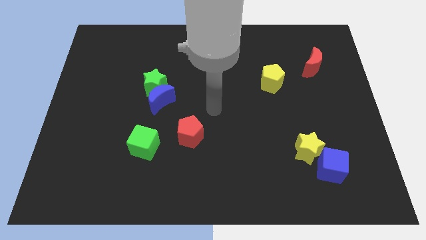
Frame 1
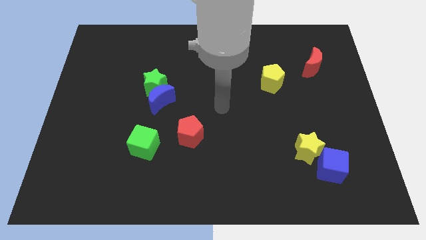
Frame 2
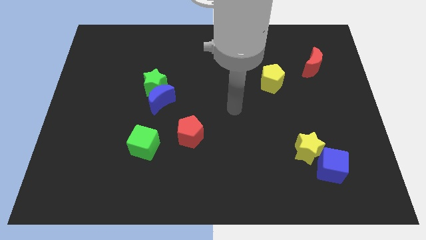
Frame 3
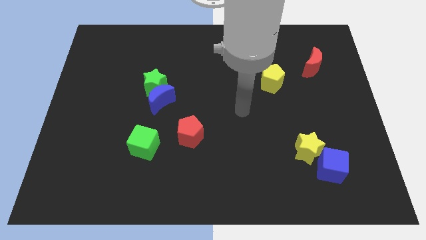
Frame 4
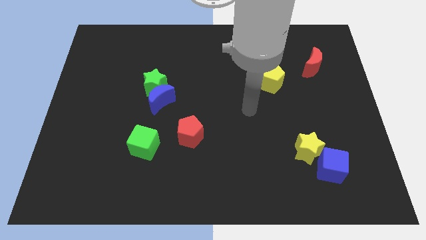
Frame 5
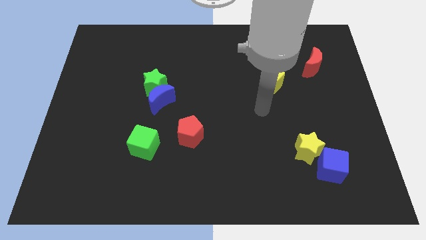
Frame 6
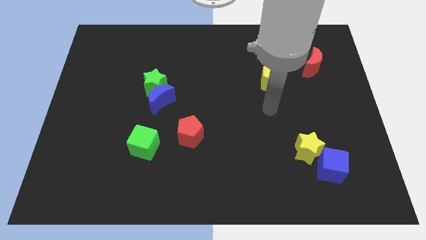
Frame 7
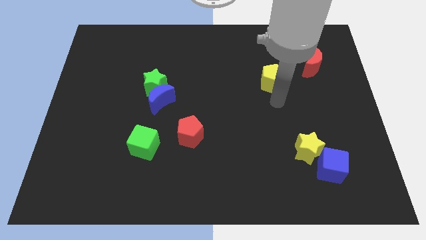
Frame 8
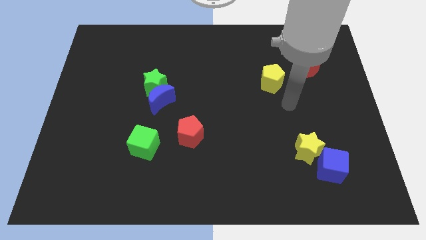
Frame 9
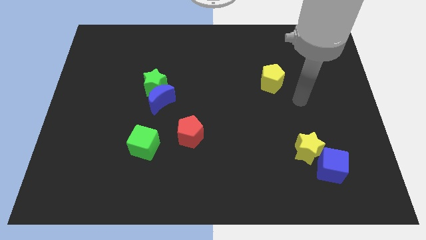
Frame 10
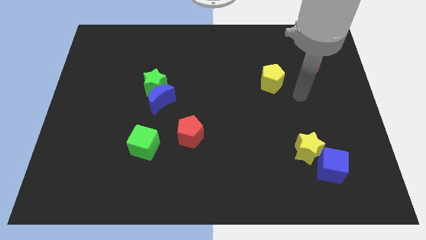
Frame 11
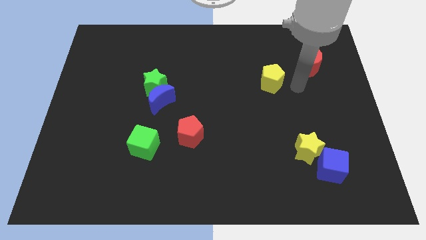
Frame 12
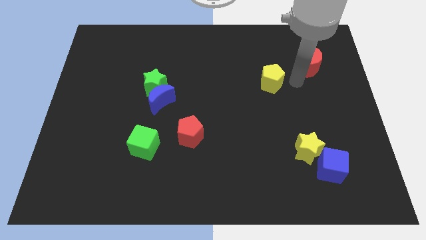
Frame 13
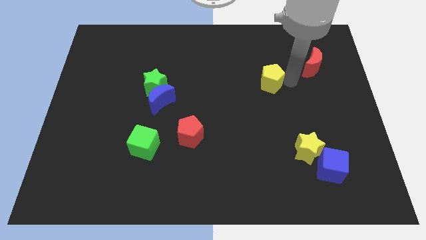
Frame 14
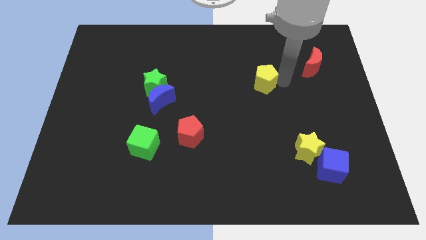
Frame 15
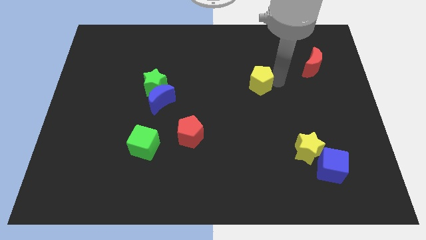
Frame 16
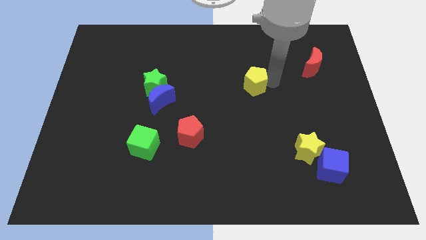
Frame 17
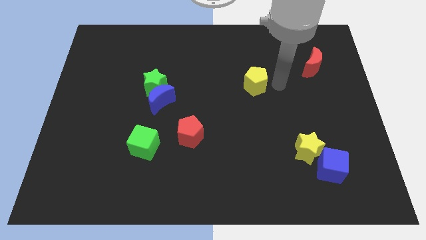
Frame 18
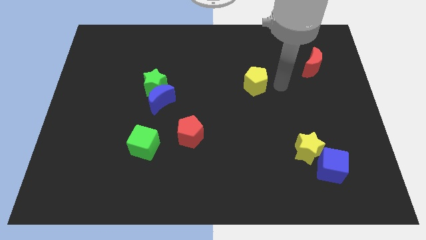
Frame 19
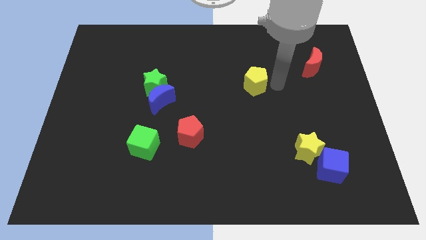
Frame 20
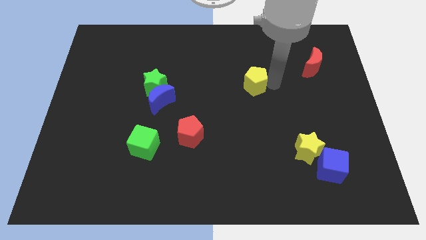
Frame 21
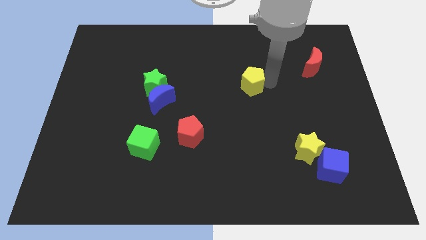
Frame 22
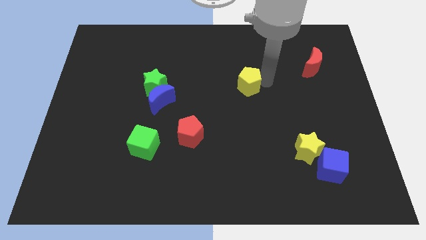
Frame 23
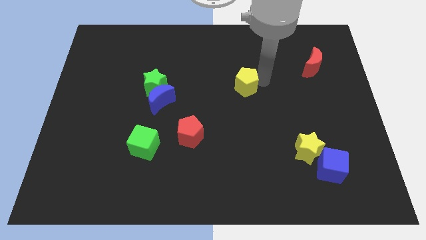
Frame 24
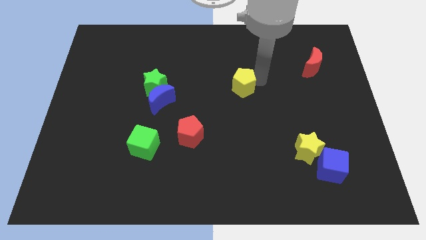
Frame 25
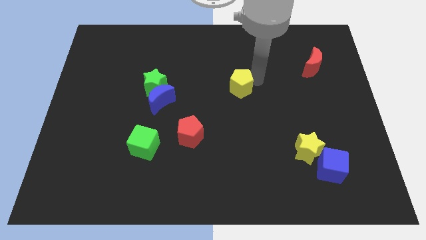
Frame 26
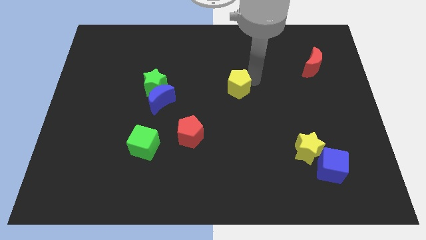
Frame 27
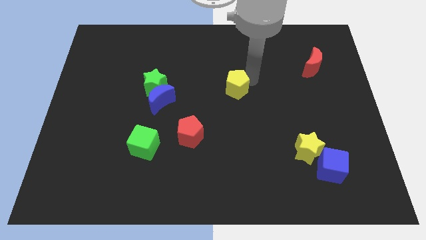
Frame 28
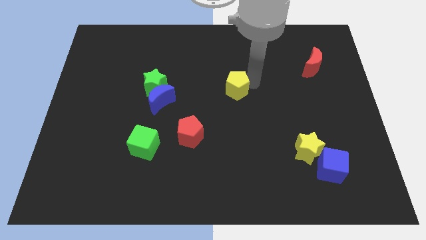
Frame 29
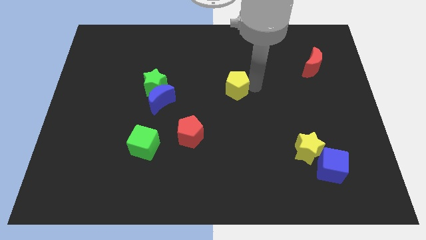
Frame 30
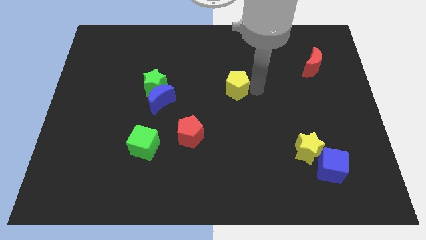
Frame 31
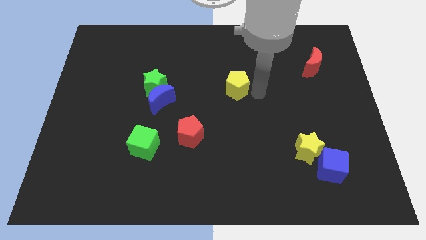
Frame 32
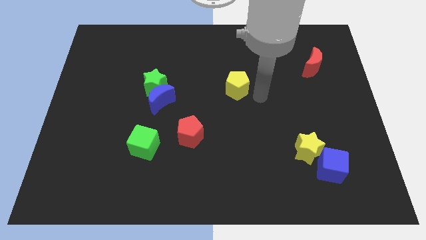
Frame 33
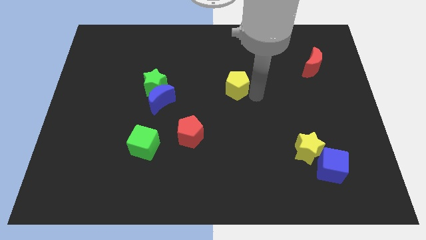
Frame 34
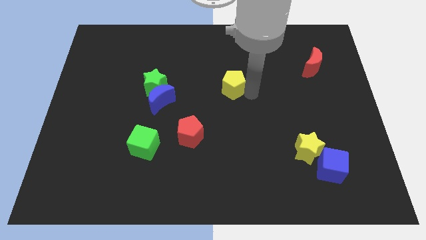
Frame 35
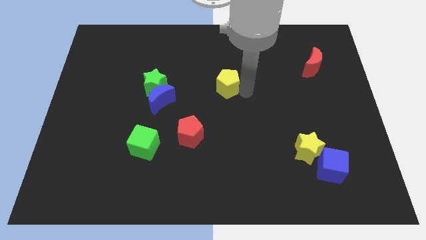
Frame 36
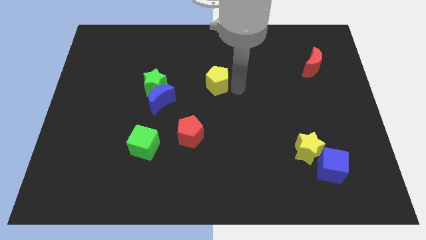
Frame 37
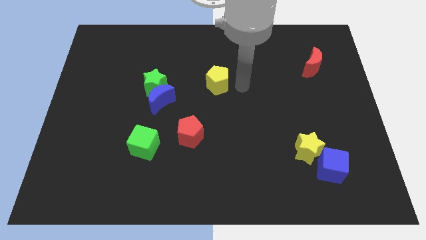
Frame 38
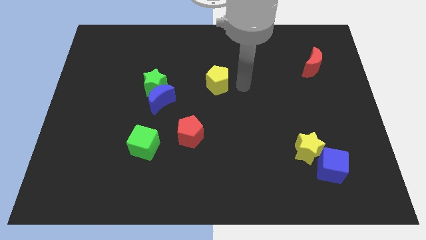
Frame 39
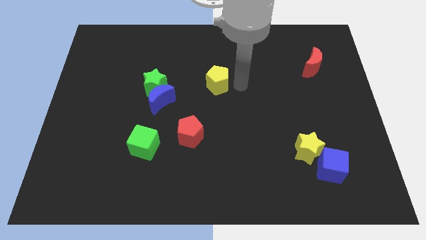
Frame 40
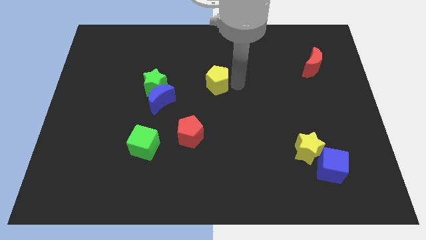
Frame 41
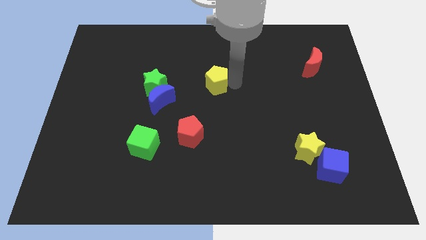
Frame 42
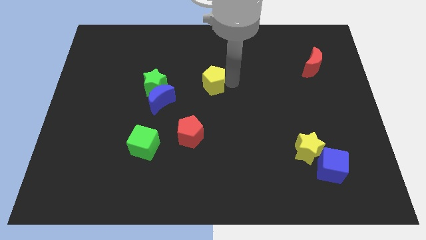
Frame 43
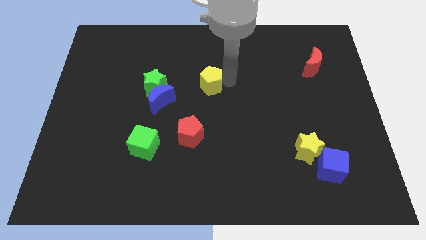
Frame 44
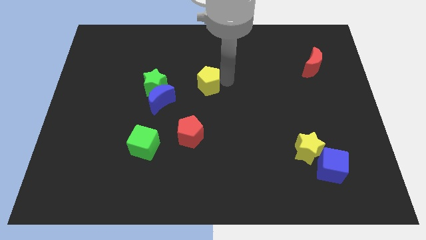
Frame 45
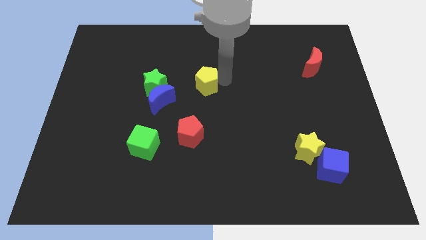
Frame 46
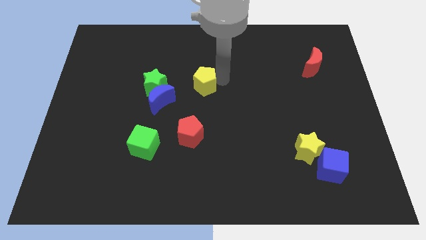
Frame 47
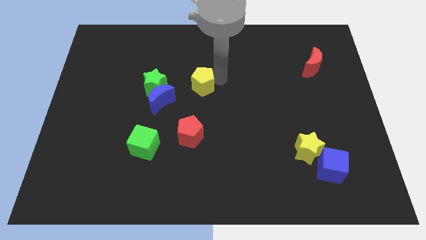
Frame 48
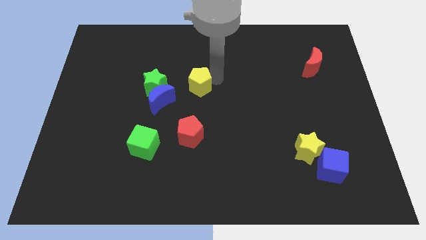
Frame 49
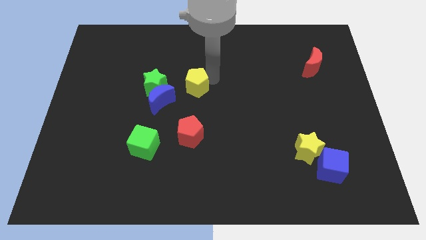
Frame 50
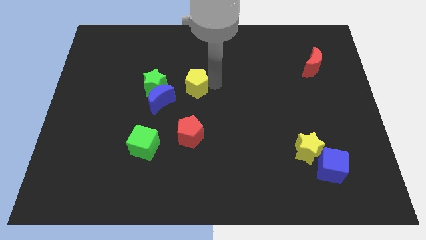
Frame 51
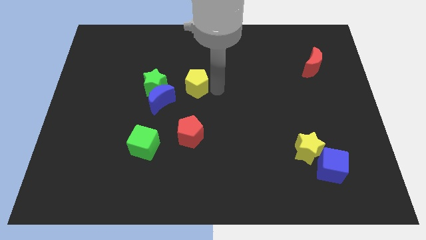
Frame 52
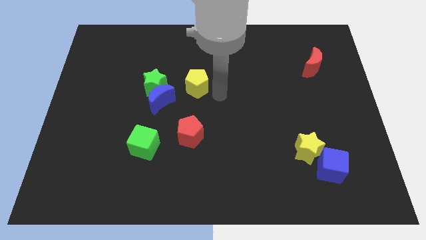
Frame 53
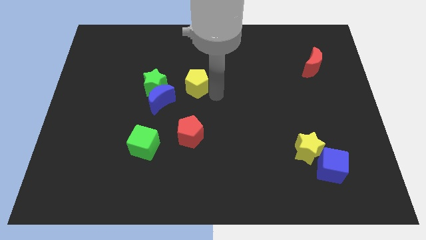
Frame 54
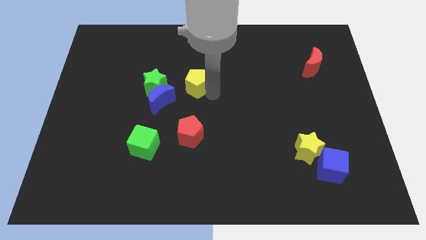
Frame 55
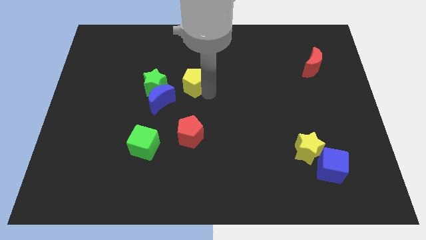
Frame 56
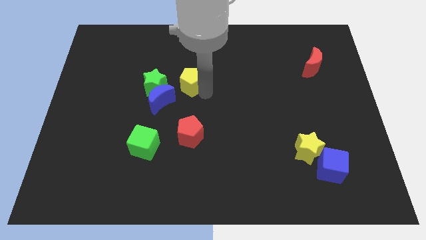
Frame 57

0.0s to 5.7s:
move the yellow pentagon to the left

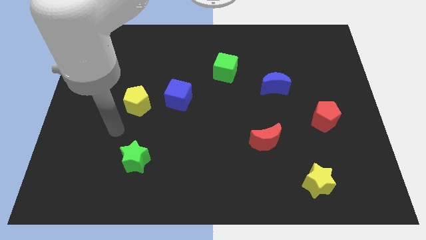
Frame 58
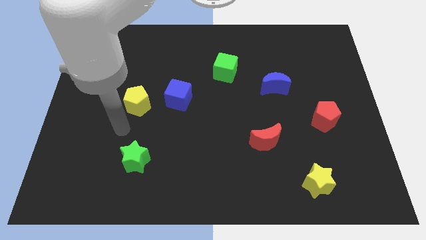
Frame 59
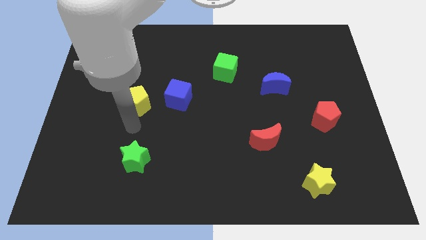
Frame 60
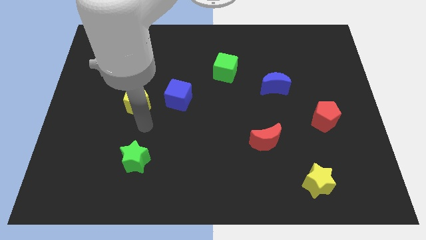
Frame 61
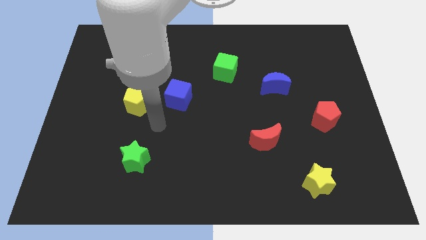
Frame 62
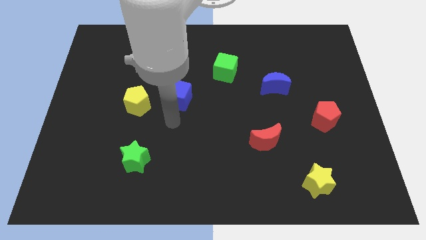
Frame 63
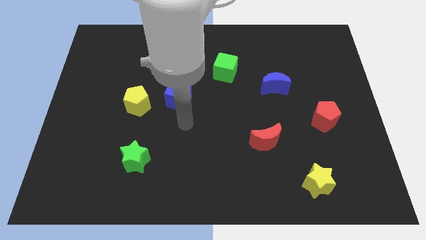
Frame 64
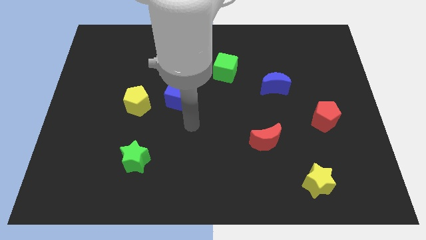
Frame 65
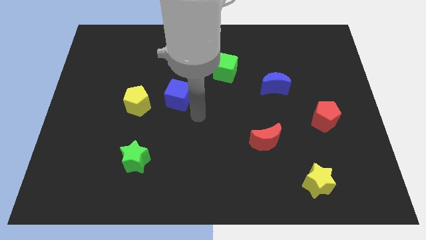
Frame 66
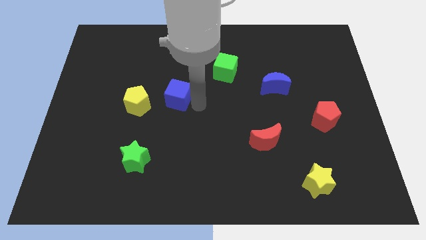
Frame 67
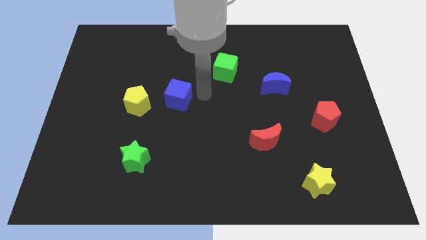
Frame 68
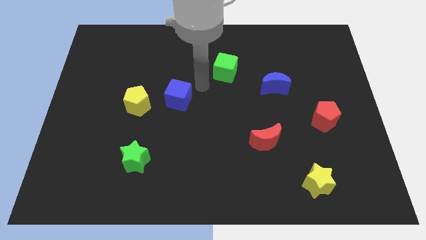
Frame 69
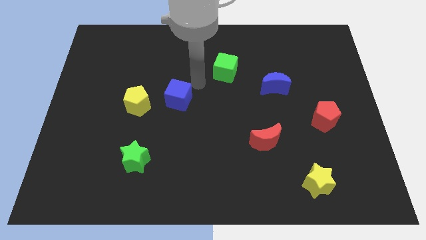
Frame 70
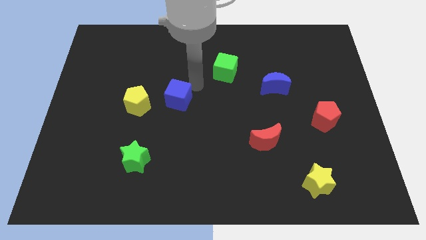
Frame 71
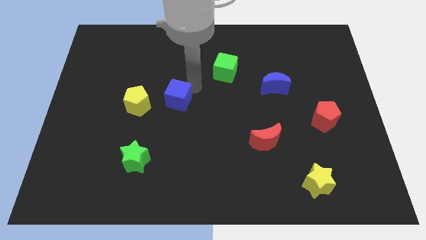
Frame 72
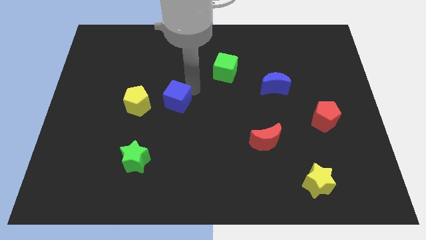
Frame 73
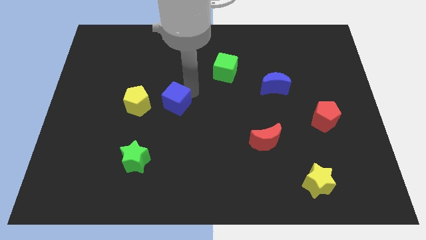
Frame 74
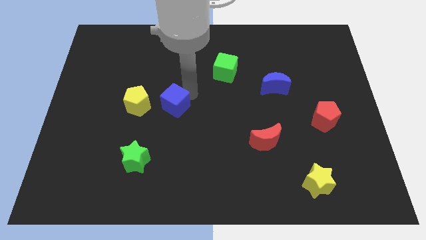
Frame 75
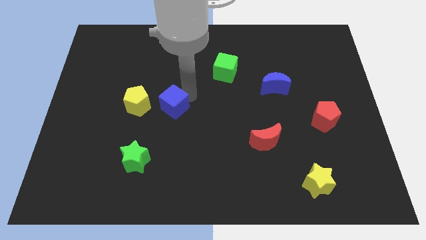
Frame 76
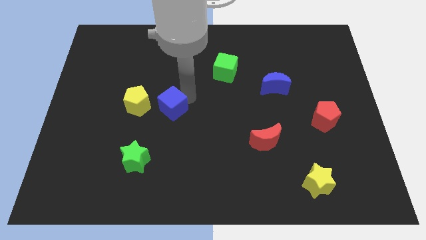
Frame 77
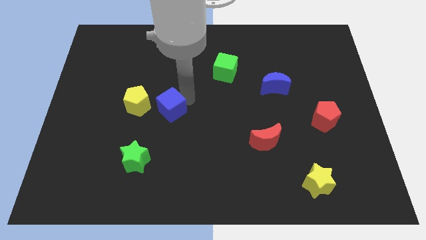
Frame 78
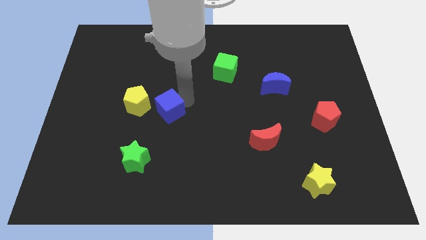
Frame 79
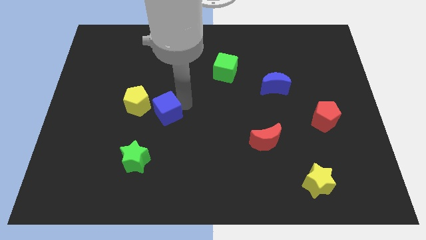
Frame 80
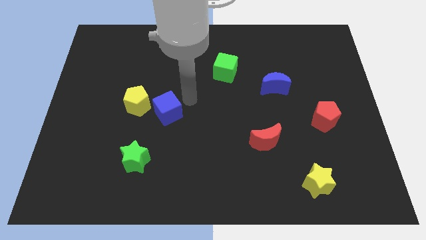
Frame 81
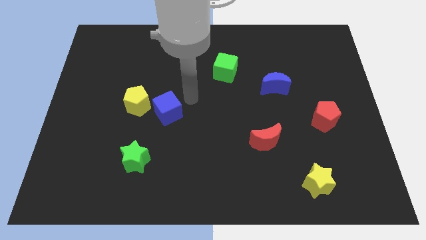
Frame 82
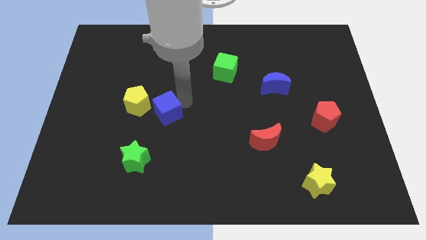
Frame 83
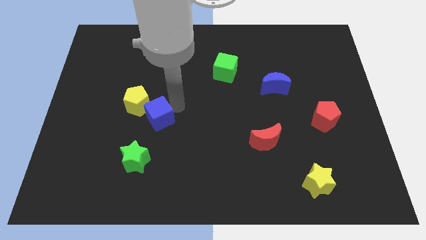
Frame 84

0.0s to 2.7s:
push the blue cube a little bit down and left
